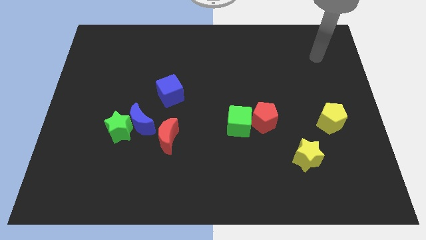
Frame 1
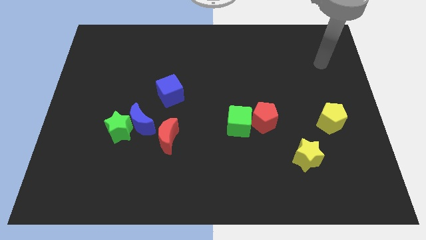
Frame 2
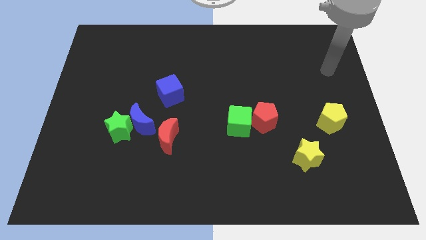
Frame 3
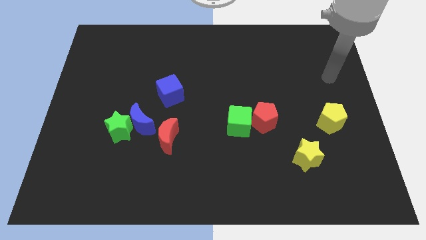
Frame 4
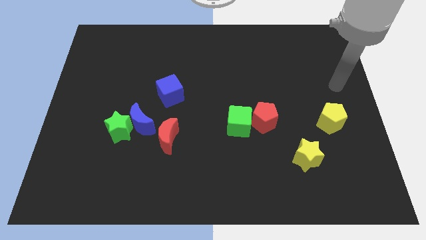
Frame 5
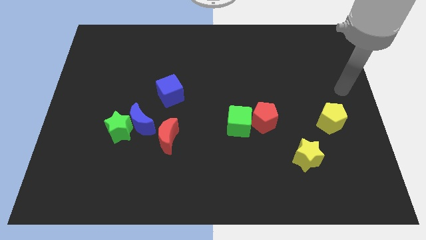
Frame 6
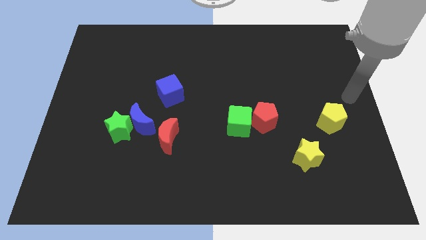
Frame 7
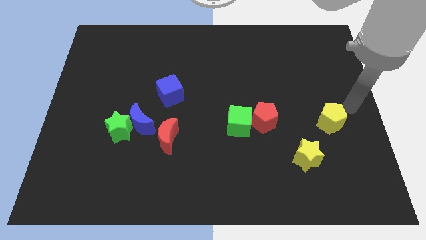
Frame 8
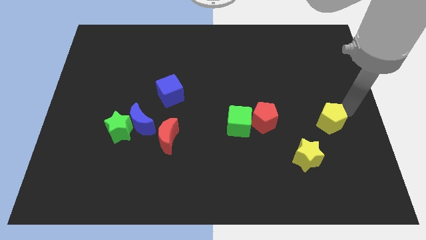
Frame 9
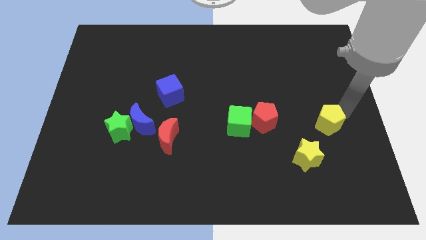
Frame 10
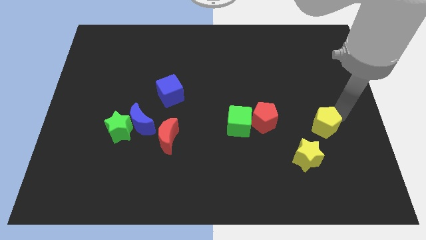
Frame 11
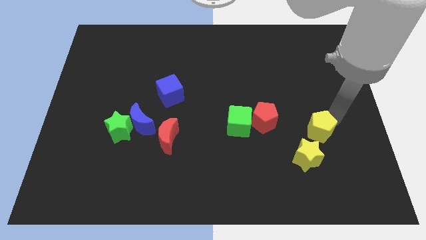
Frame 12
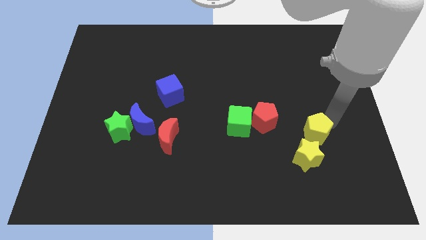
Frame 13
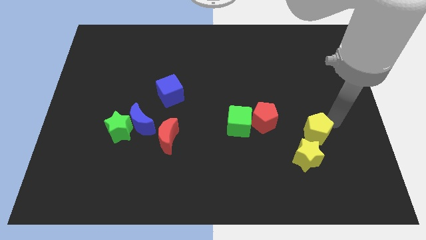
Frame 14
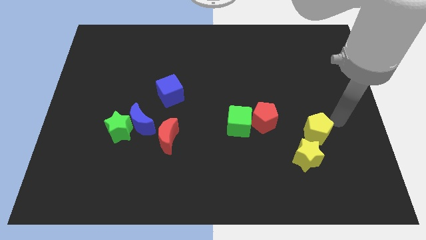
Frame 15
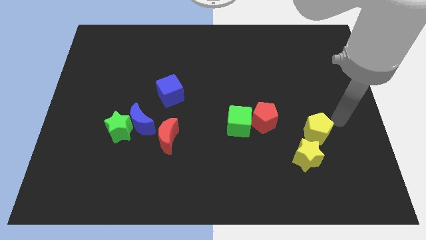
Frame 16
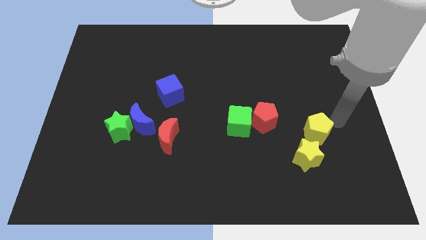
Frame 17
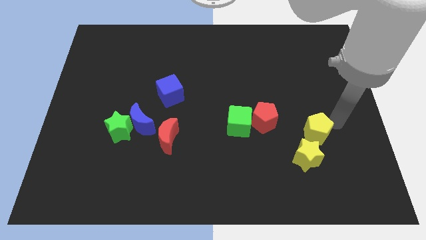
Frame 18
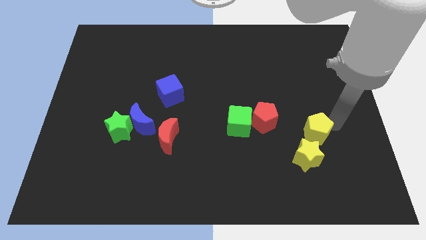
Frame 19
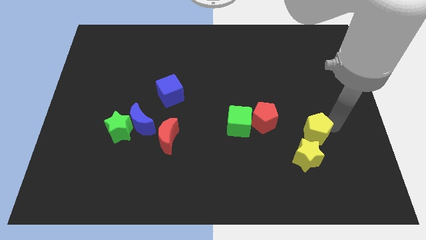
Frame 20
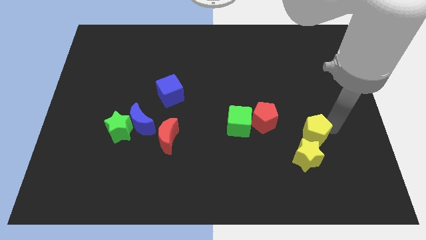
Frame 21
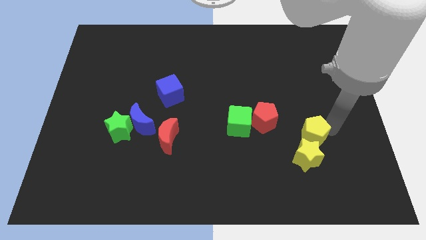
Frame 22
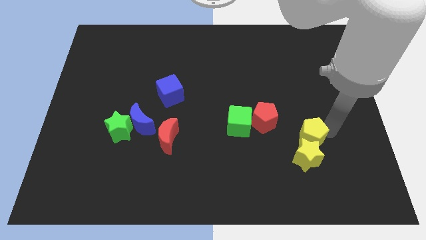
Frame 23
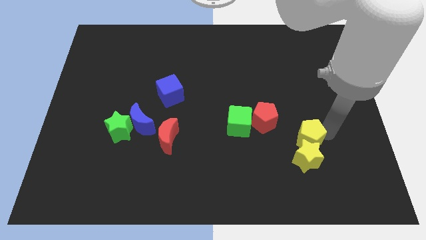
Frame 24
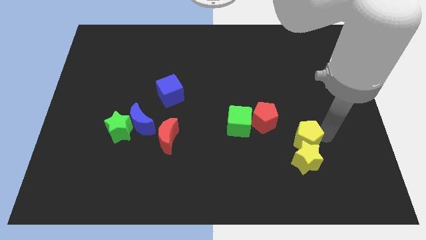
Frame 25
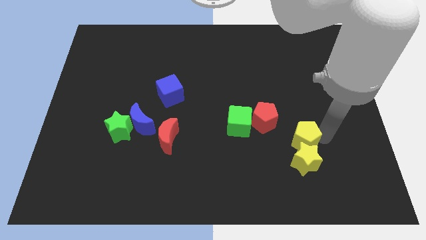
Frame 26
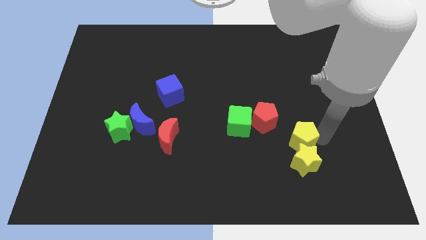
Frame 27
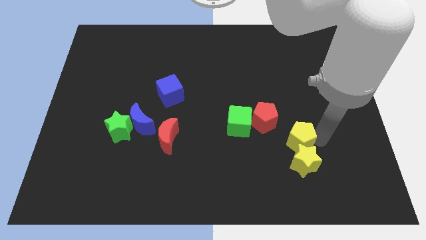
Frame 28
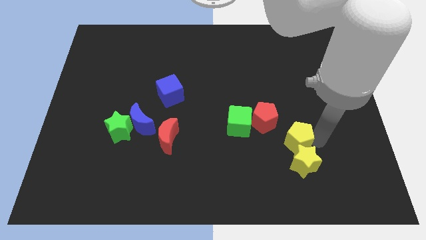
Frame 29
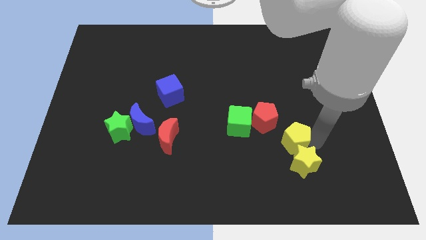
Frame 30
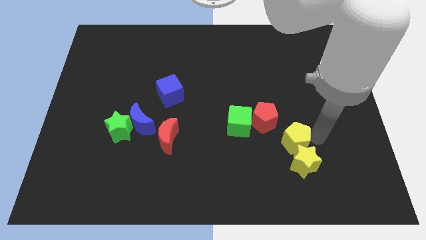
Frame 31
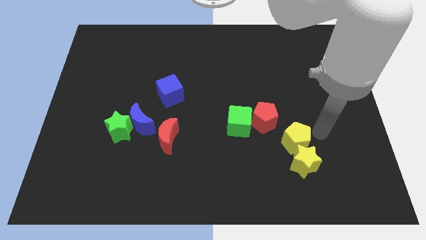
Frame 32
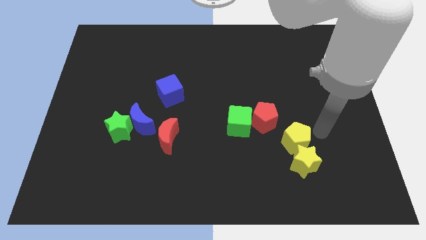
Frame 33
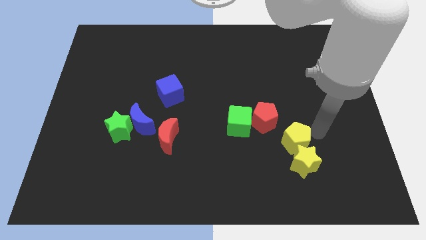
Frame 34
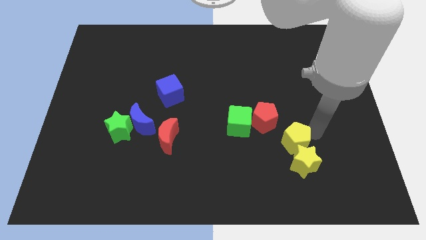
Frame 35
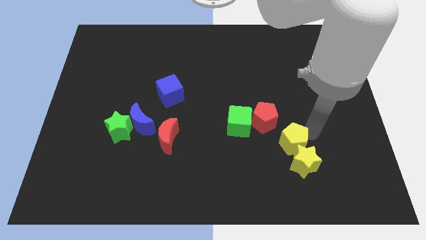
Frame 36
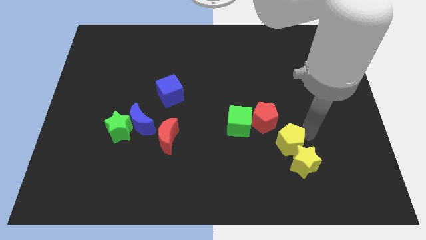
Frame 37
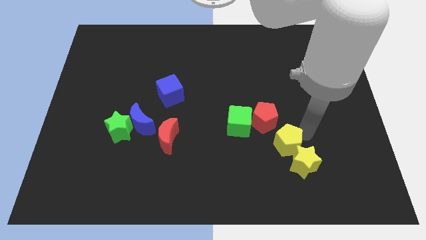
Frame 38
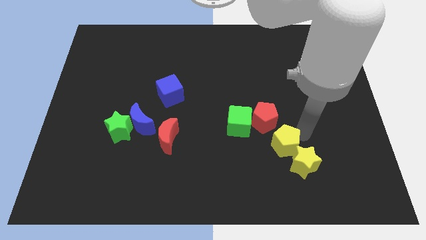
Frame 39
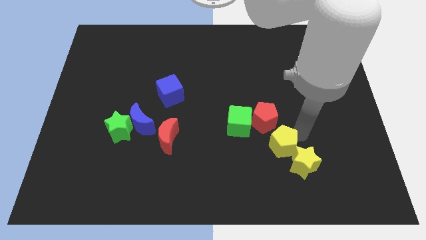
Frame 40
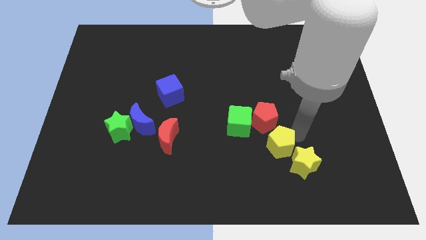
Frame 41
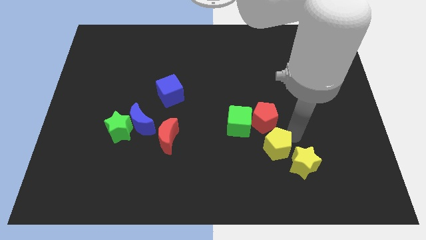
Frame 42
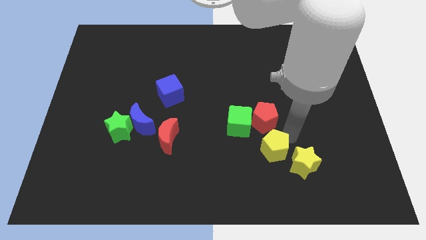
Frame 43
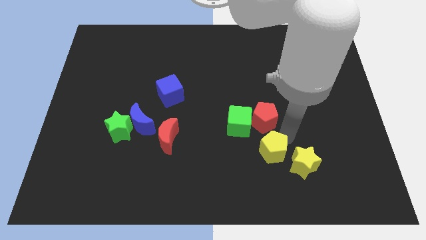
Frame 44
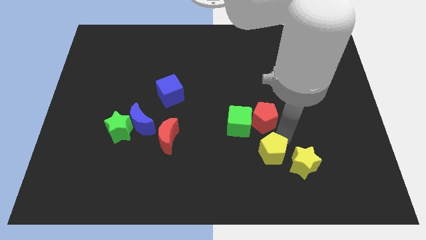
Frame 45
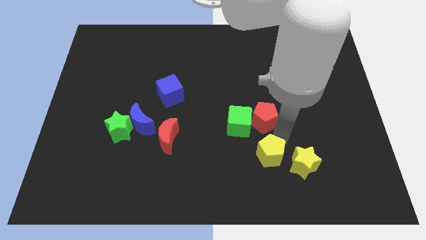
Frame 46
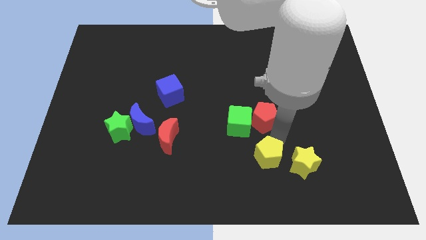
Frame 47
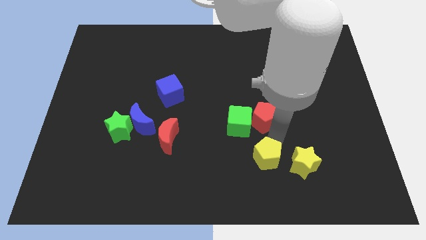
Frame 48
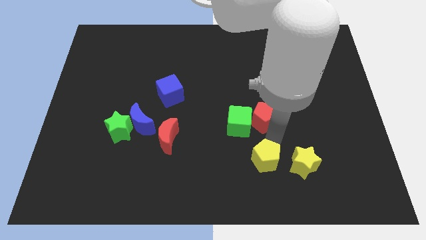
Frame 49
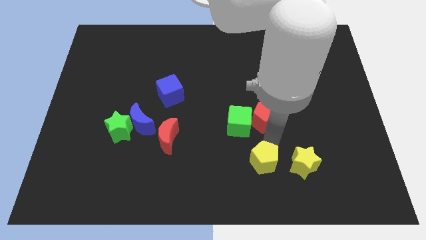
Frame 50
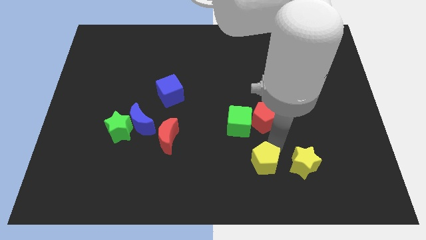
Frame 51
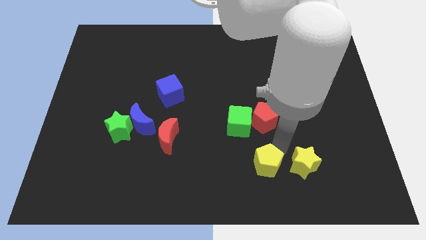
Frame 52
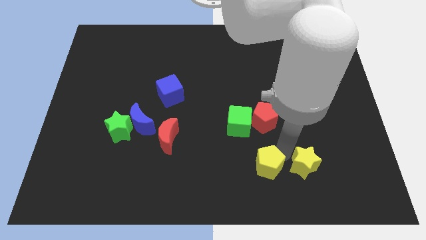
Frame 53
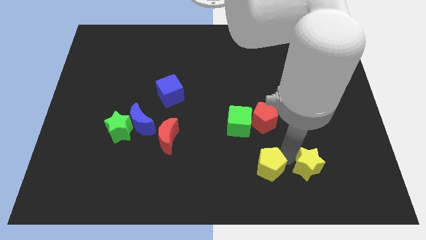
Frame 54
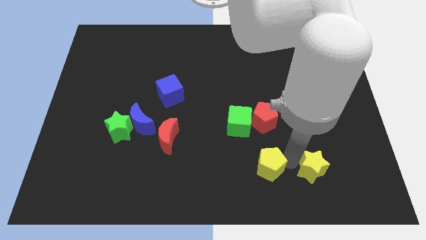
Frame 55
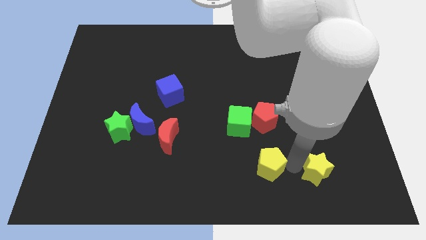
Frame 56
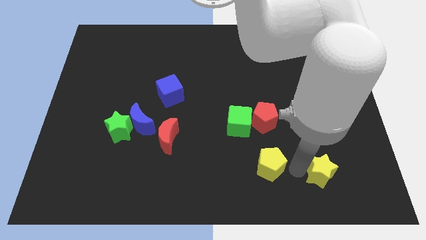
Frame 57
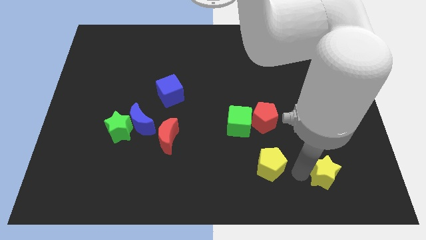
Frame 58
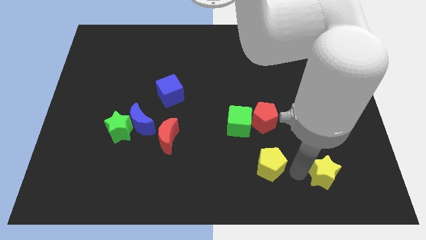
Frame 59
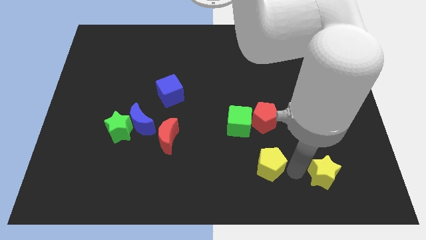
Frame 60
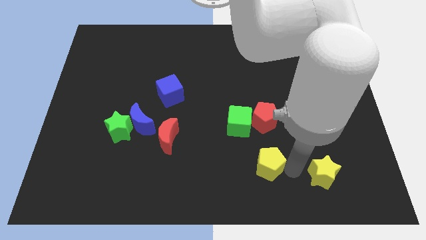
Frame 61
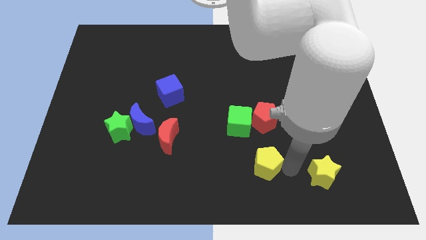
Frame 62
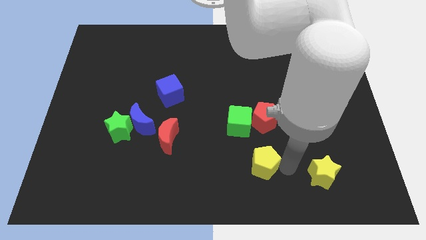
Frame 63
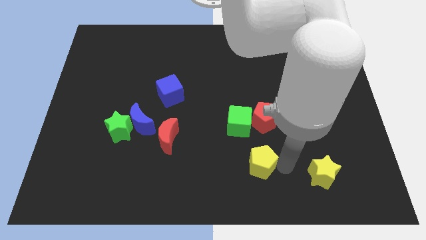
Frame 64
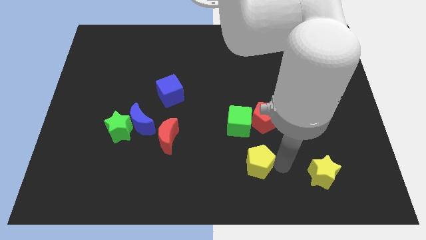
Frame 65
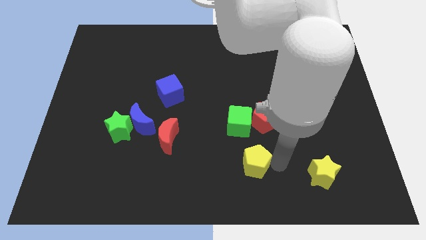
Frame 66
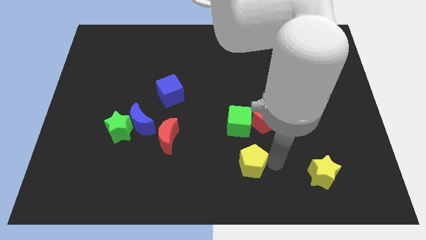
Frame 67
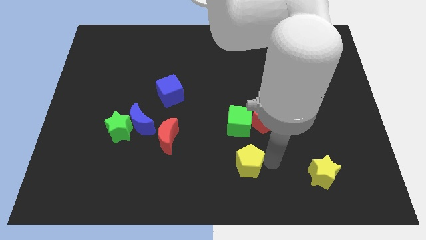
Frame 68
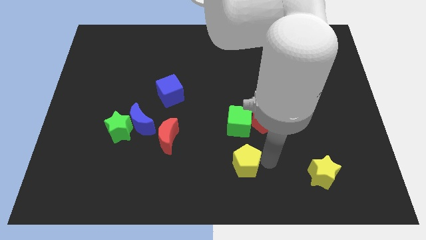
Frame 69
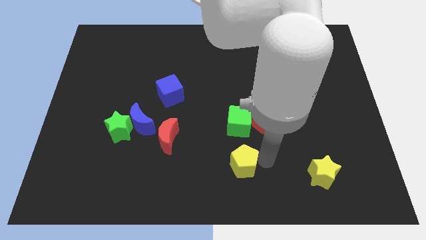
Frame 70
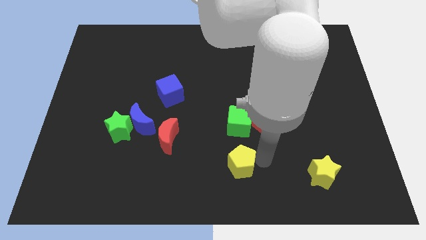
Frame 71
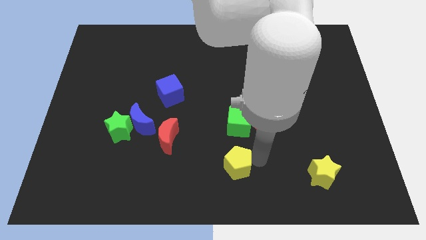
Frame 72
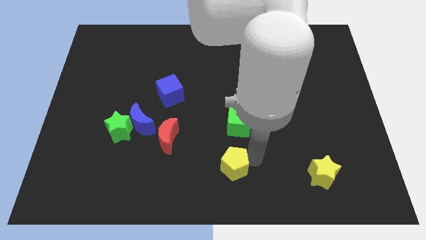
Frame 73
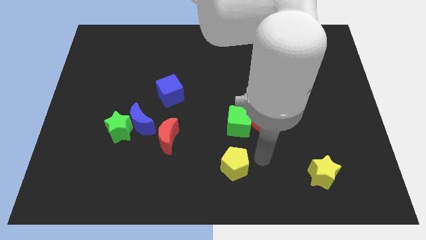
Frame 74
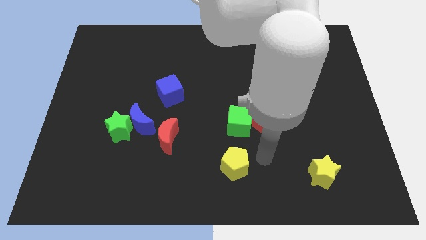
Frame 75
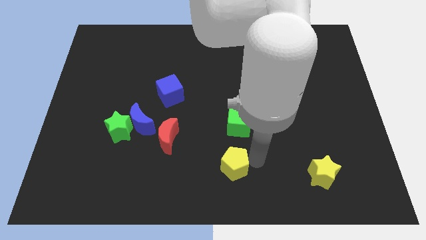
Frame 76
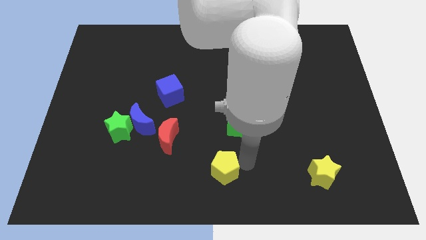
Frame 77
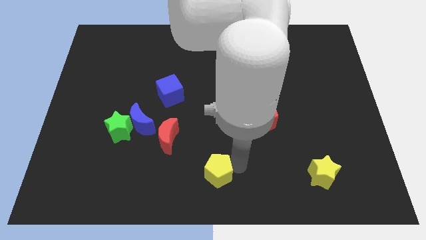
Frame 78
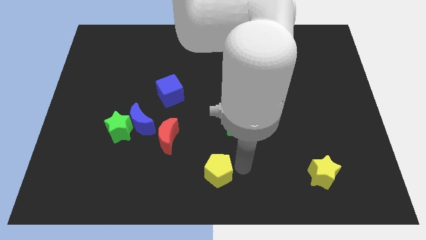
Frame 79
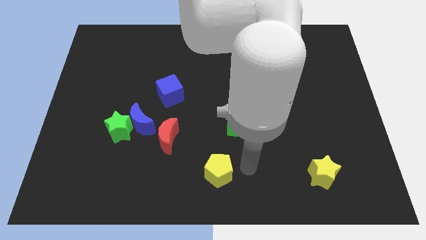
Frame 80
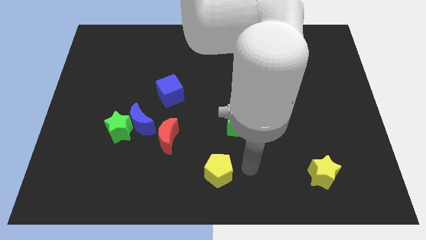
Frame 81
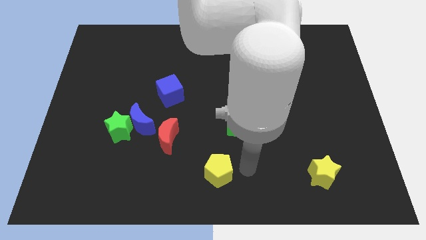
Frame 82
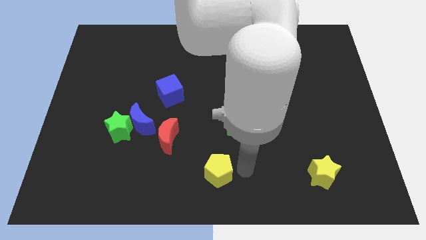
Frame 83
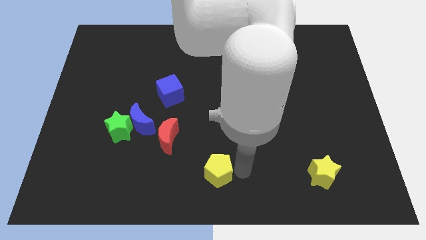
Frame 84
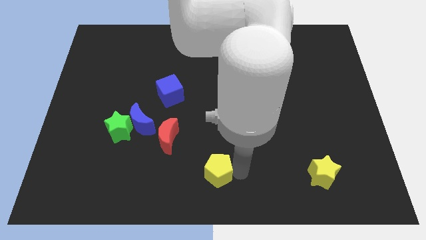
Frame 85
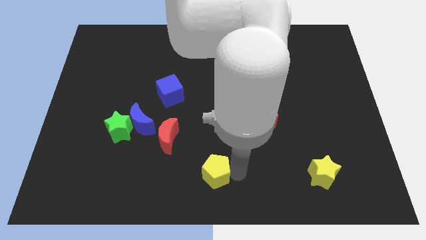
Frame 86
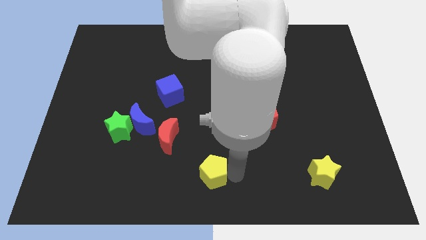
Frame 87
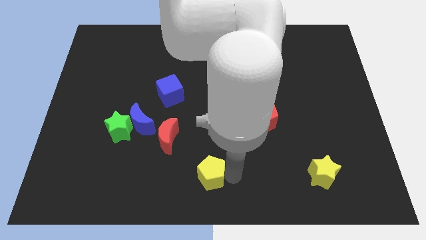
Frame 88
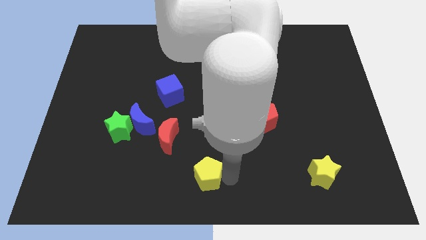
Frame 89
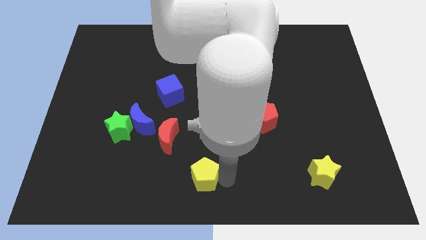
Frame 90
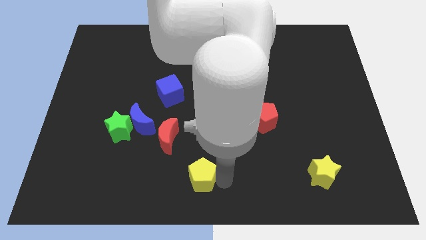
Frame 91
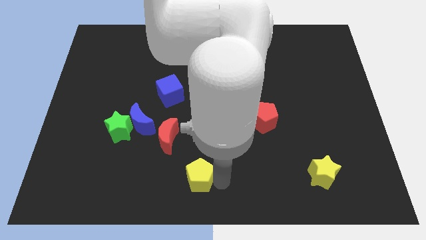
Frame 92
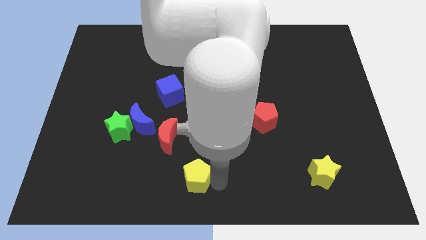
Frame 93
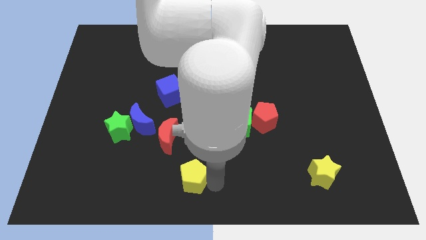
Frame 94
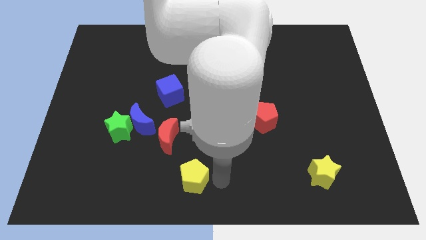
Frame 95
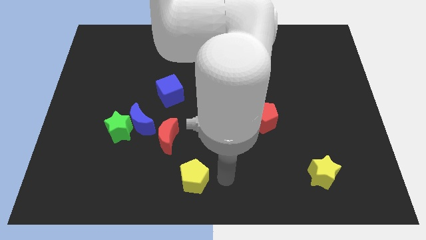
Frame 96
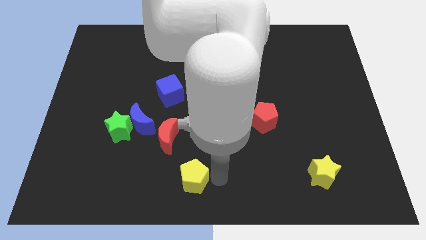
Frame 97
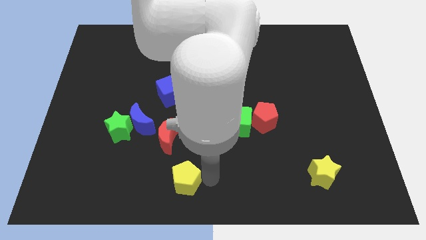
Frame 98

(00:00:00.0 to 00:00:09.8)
put the yellow pentagon to the bottom of the red moon
